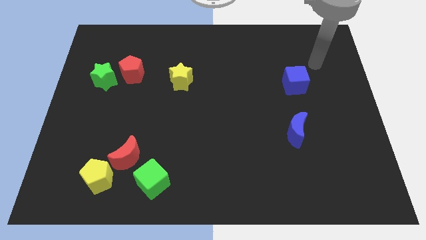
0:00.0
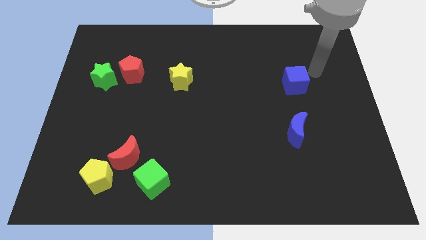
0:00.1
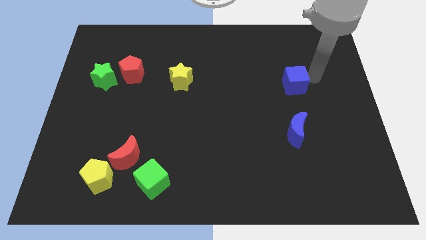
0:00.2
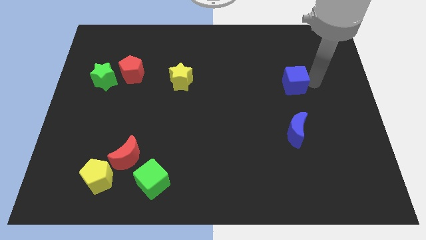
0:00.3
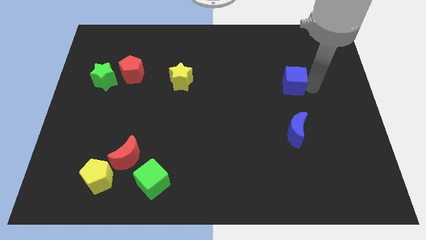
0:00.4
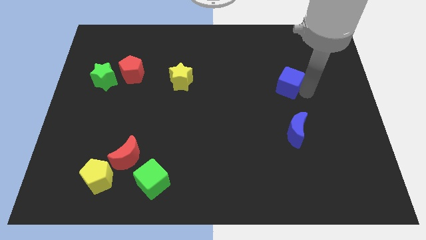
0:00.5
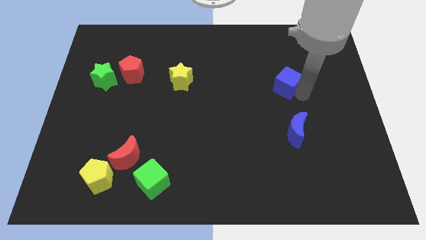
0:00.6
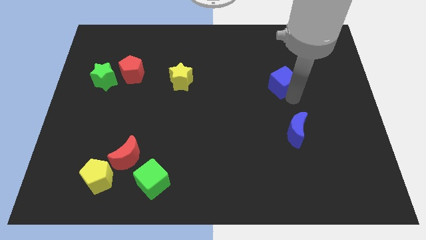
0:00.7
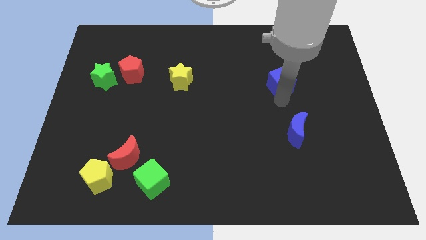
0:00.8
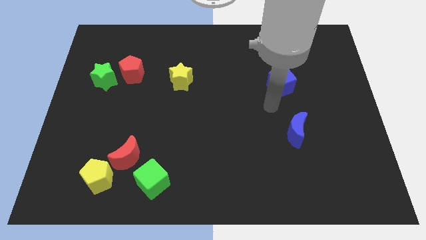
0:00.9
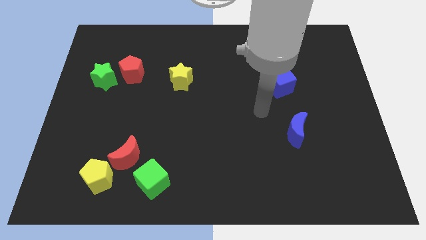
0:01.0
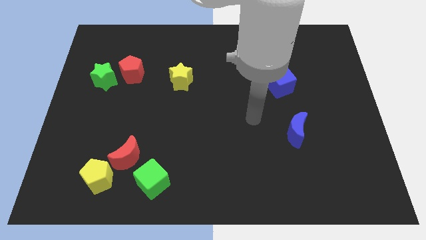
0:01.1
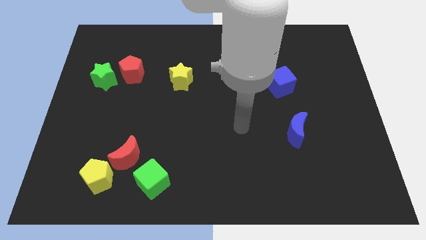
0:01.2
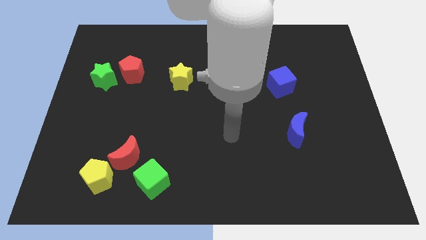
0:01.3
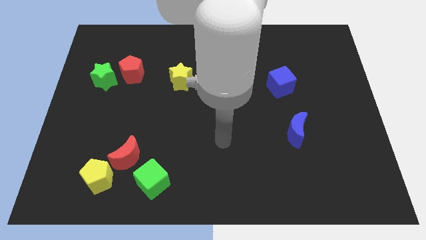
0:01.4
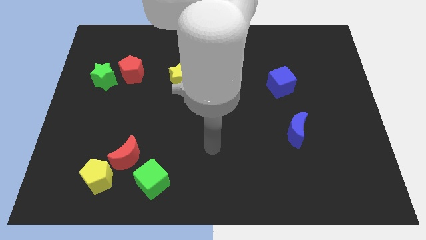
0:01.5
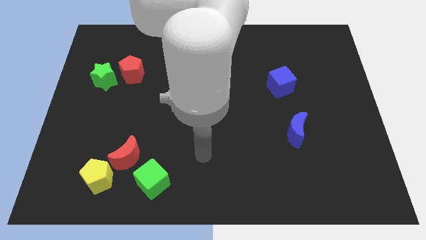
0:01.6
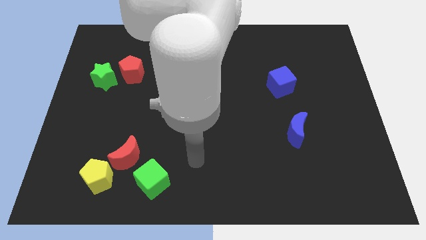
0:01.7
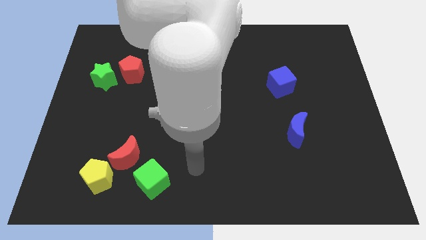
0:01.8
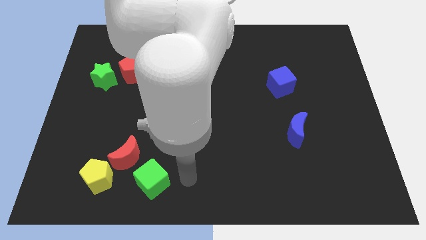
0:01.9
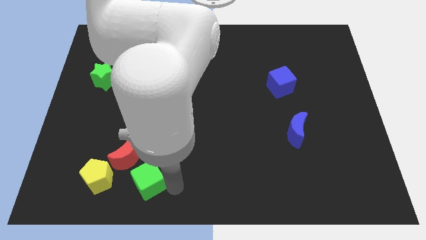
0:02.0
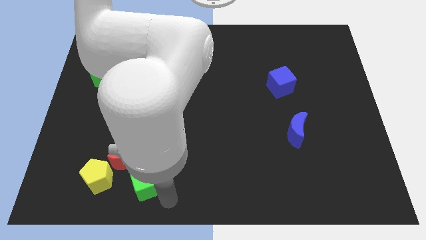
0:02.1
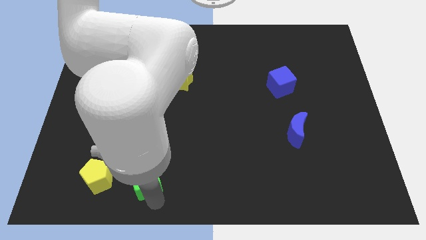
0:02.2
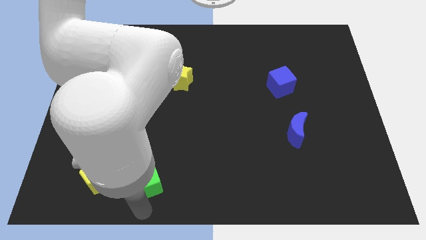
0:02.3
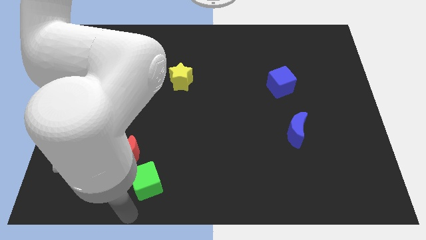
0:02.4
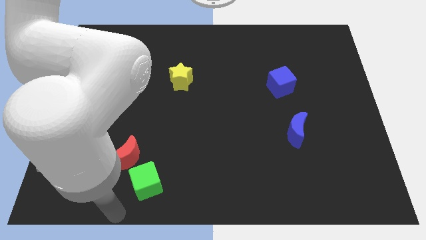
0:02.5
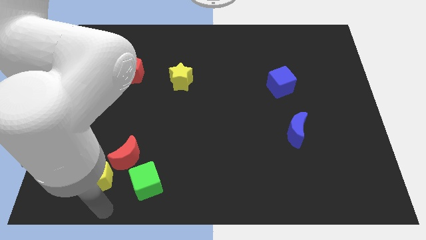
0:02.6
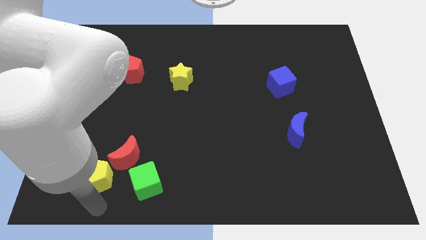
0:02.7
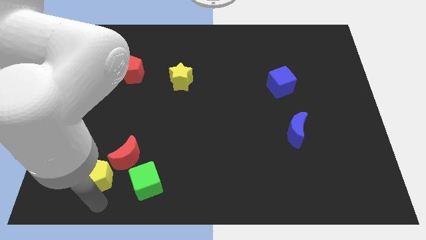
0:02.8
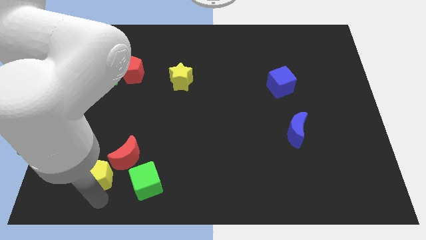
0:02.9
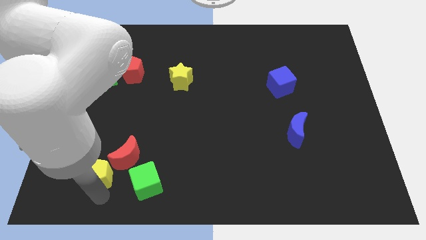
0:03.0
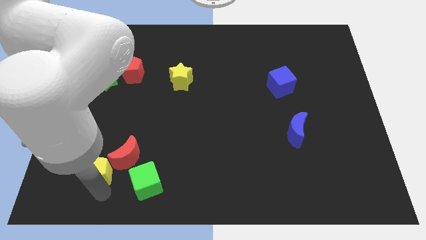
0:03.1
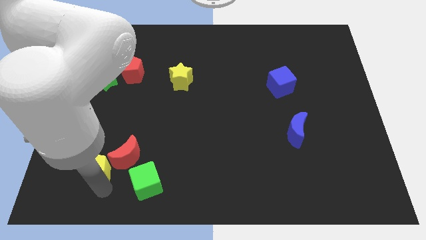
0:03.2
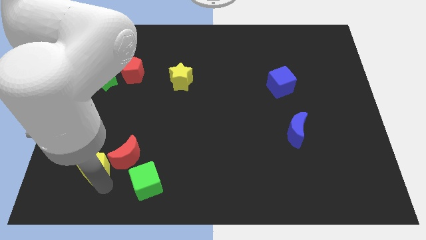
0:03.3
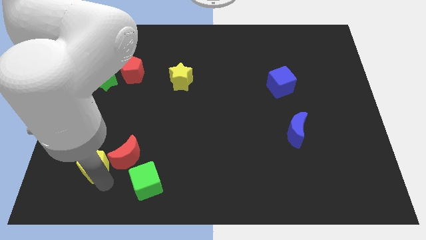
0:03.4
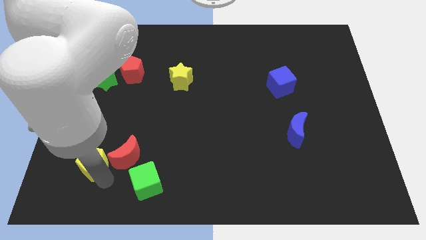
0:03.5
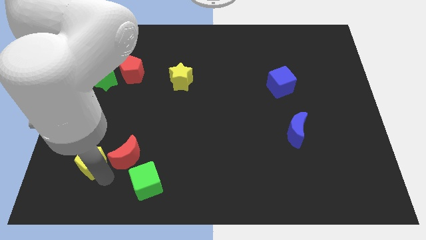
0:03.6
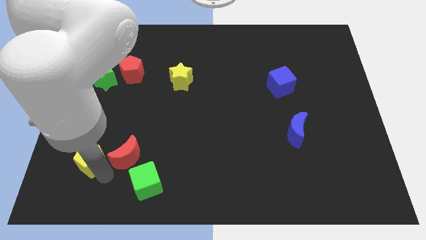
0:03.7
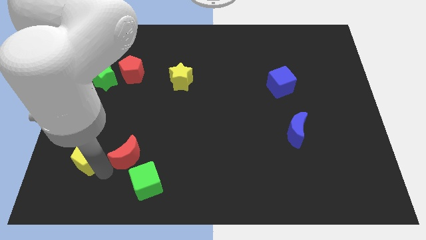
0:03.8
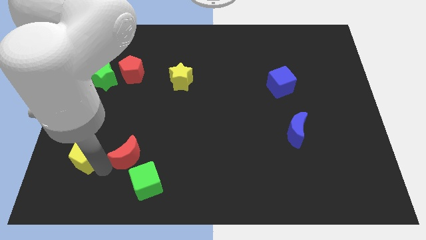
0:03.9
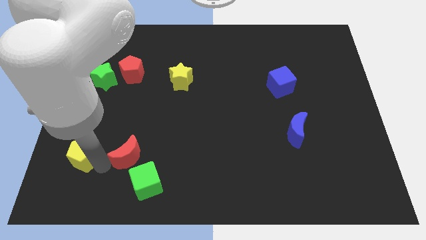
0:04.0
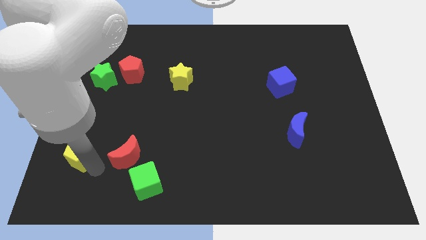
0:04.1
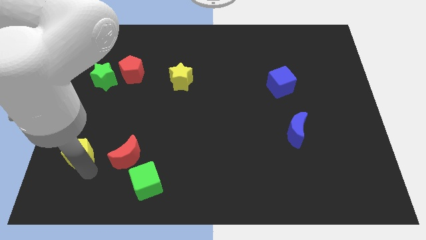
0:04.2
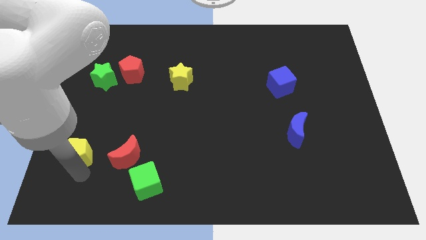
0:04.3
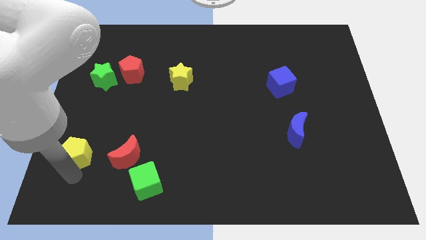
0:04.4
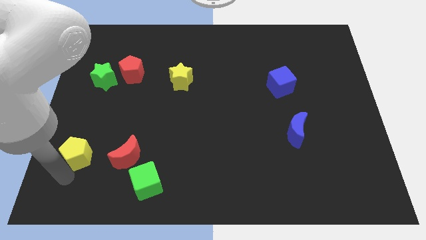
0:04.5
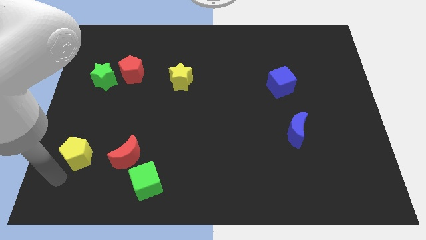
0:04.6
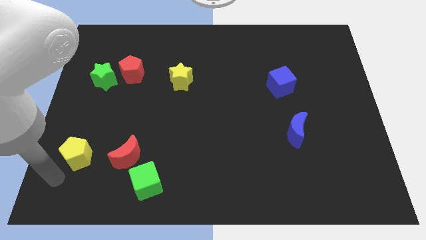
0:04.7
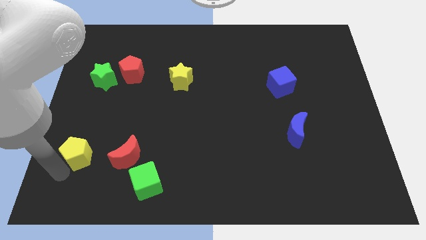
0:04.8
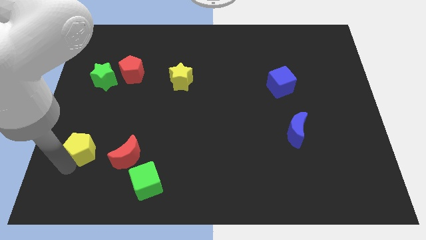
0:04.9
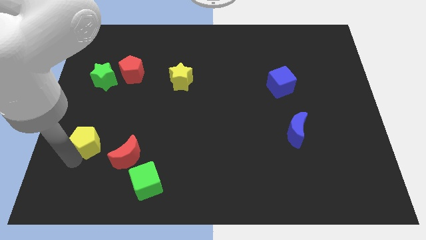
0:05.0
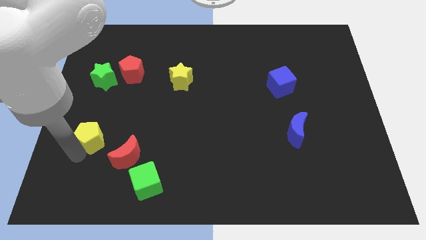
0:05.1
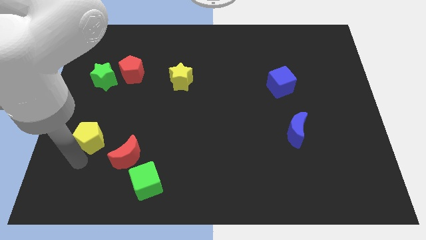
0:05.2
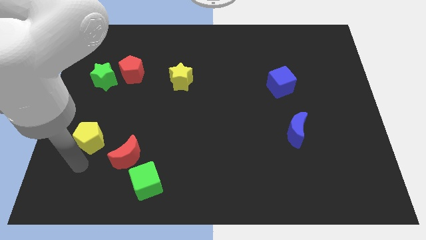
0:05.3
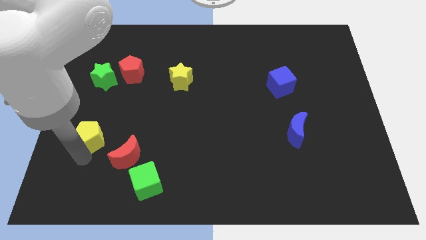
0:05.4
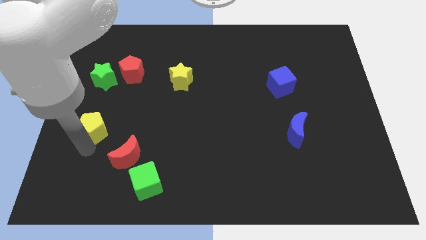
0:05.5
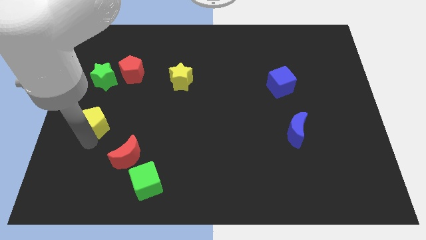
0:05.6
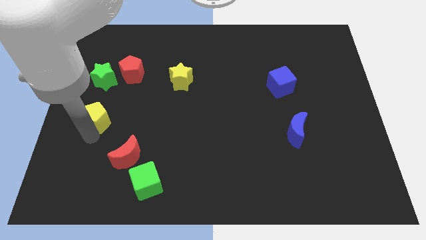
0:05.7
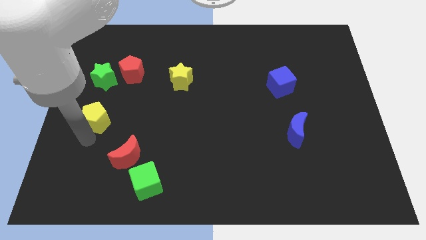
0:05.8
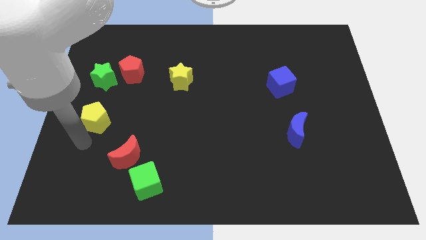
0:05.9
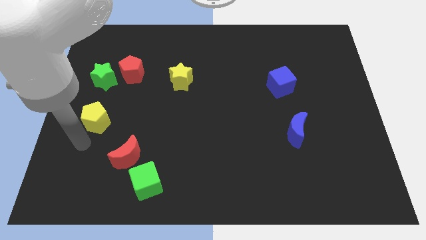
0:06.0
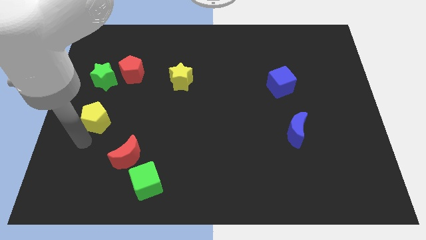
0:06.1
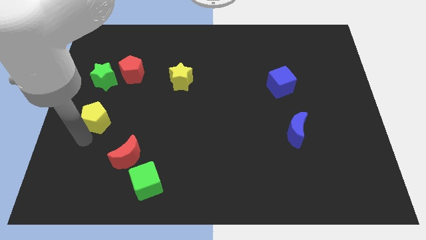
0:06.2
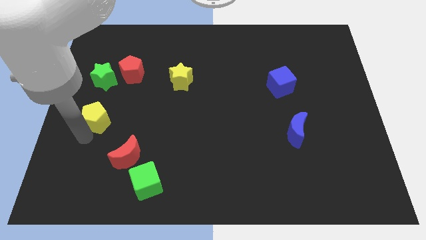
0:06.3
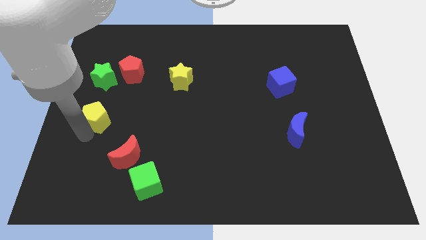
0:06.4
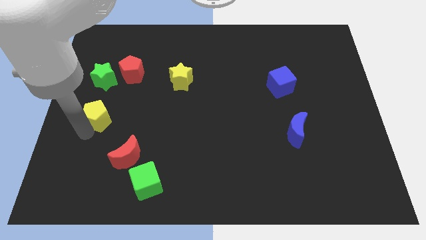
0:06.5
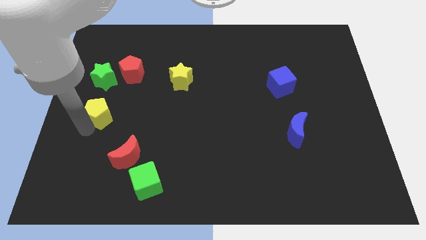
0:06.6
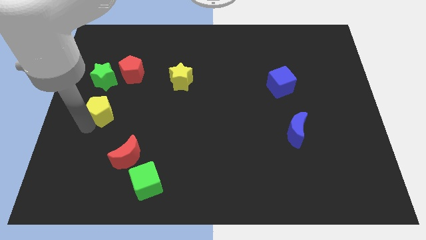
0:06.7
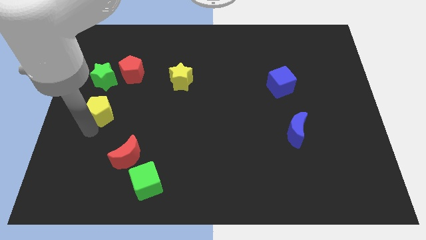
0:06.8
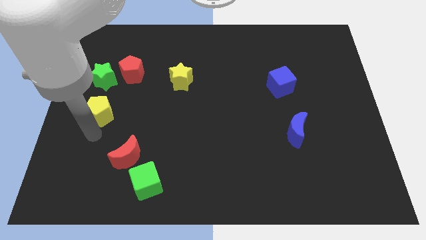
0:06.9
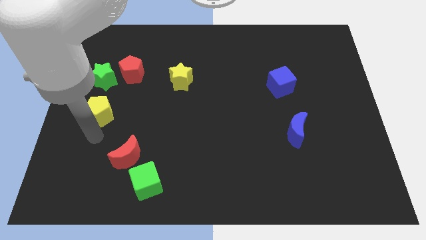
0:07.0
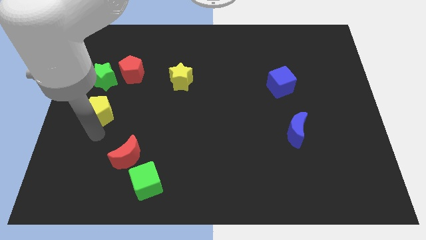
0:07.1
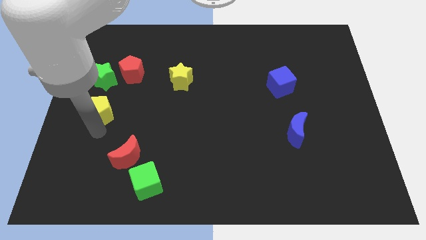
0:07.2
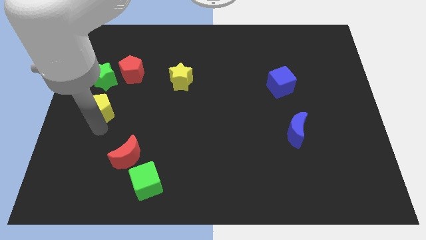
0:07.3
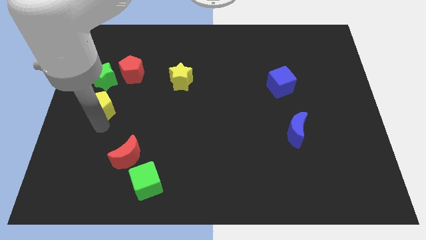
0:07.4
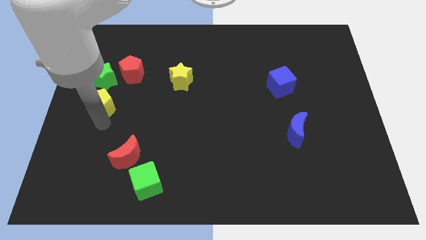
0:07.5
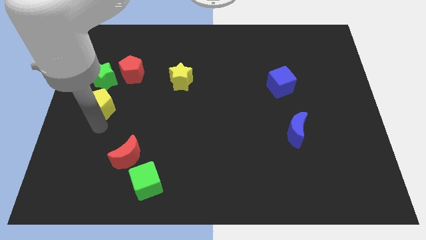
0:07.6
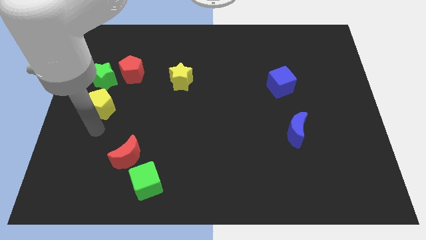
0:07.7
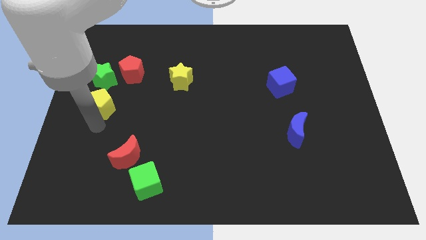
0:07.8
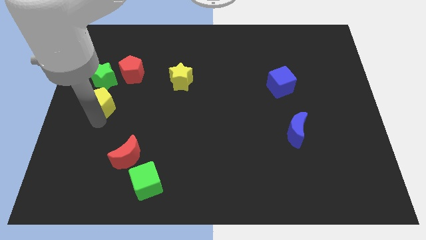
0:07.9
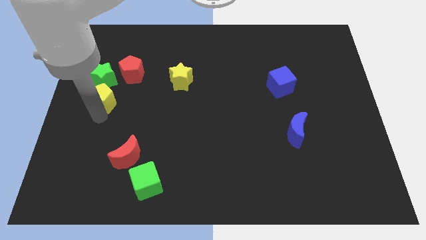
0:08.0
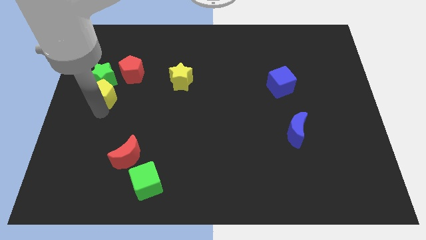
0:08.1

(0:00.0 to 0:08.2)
slide the yellow pentagon close to the green star
